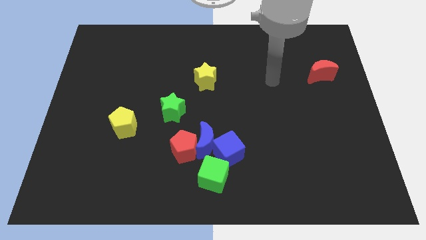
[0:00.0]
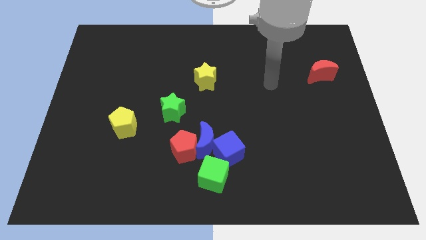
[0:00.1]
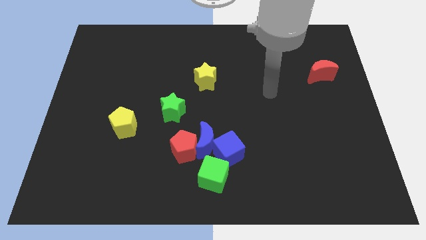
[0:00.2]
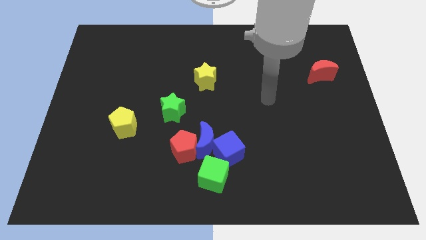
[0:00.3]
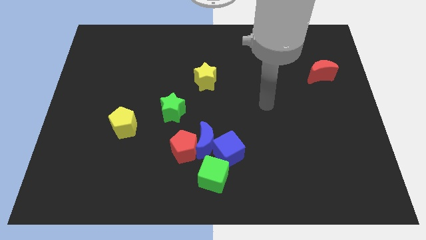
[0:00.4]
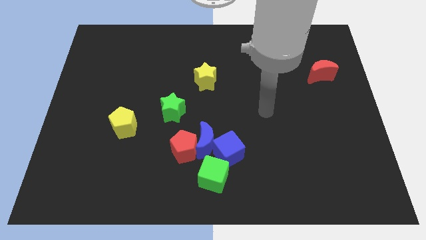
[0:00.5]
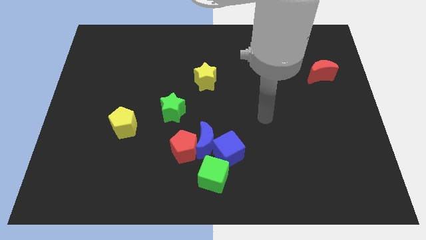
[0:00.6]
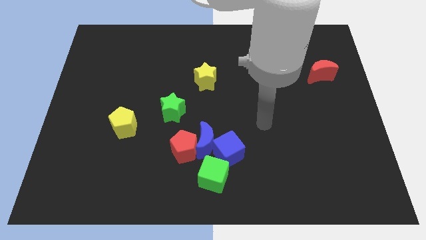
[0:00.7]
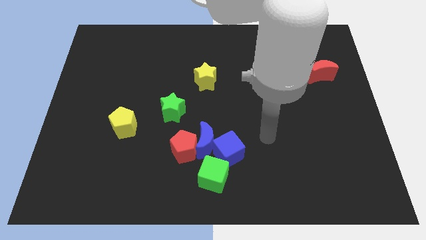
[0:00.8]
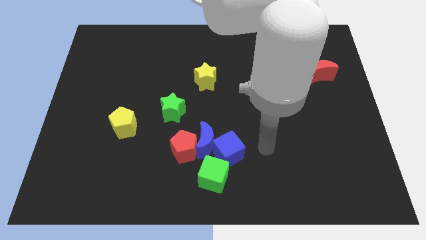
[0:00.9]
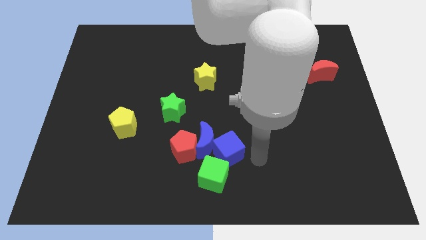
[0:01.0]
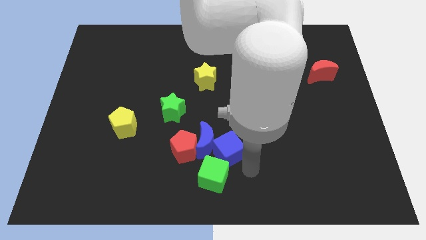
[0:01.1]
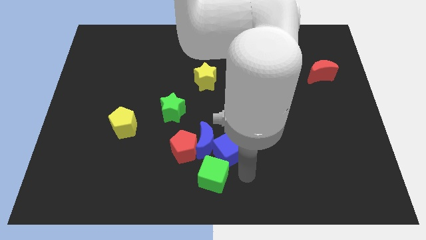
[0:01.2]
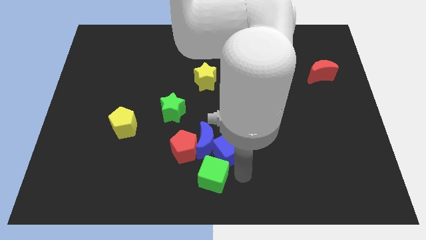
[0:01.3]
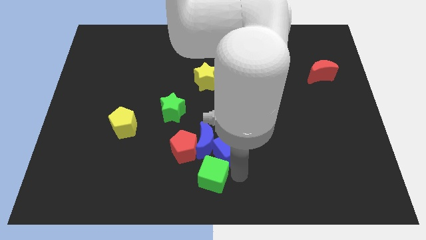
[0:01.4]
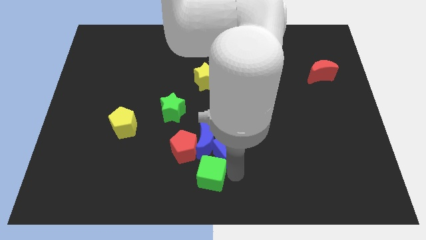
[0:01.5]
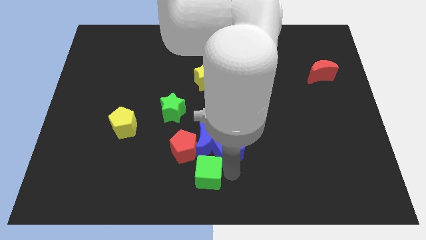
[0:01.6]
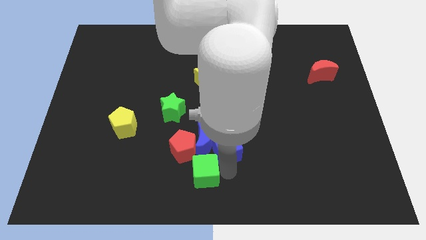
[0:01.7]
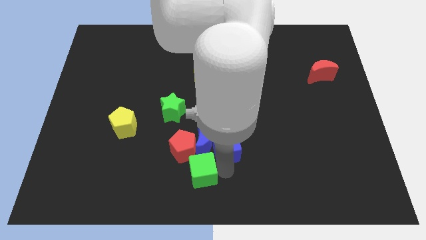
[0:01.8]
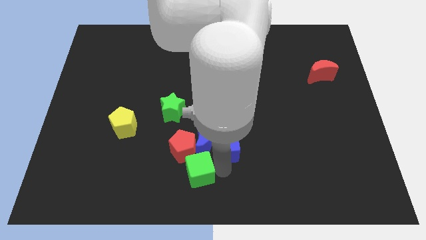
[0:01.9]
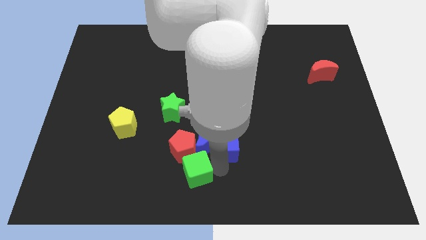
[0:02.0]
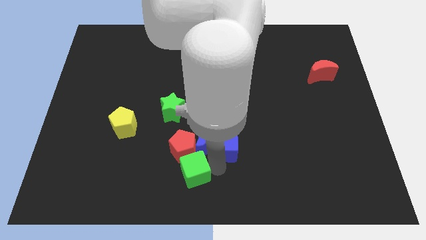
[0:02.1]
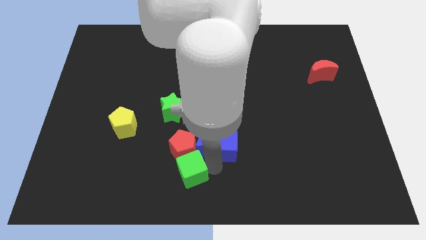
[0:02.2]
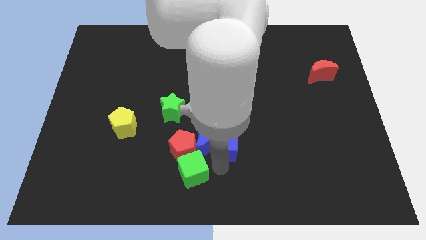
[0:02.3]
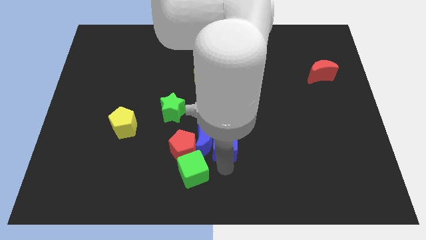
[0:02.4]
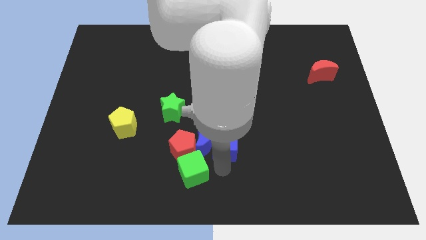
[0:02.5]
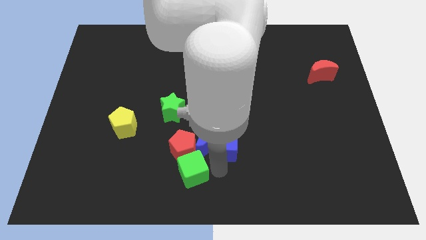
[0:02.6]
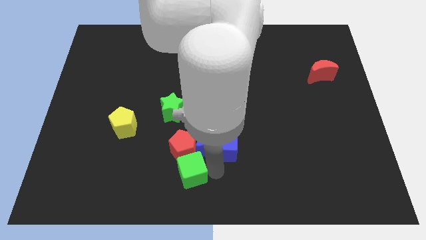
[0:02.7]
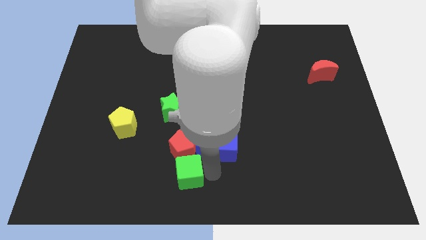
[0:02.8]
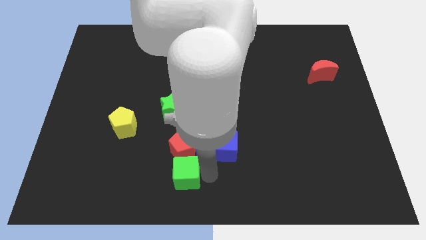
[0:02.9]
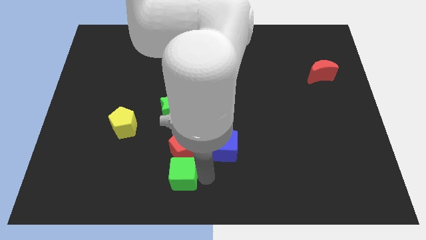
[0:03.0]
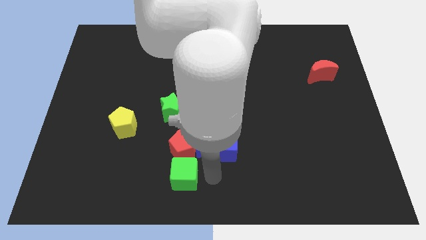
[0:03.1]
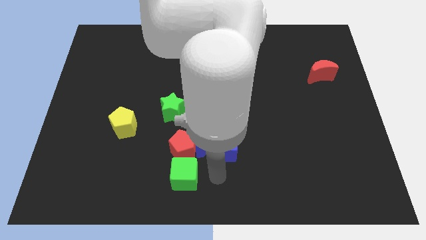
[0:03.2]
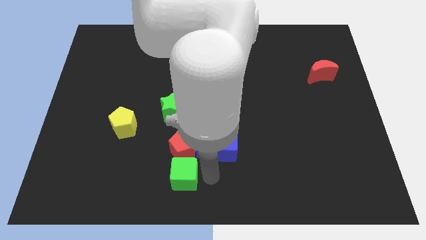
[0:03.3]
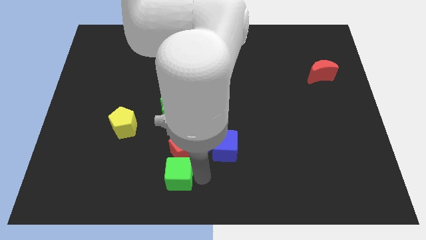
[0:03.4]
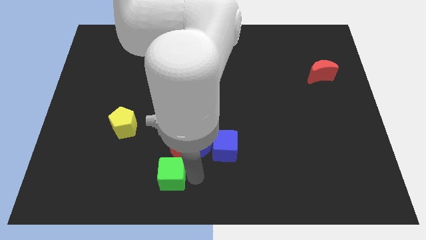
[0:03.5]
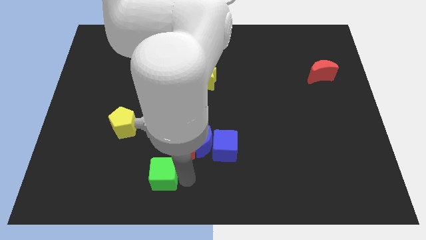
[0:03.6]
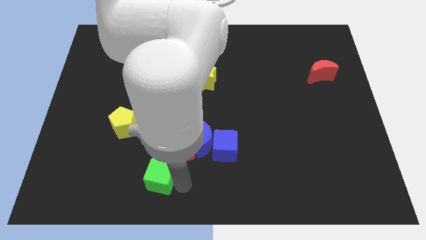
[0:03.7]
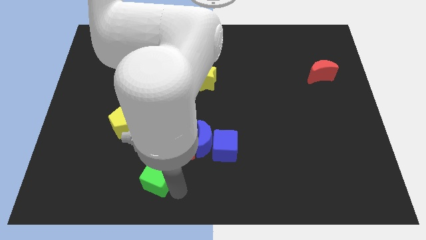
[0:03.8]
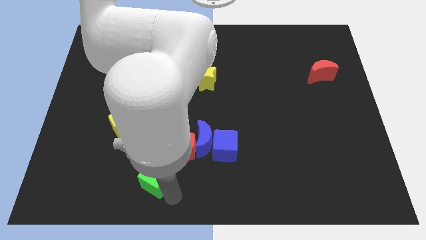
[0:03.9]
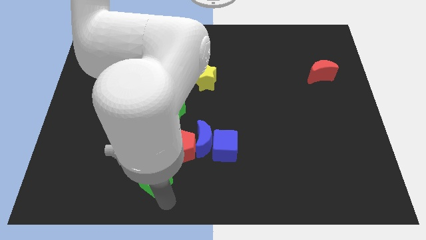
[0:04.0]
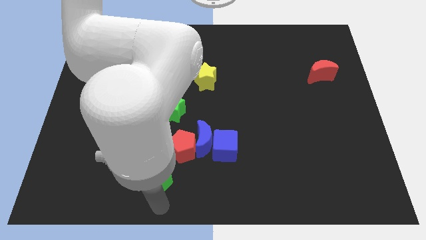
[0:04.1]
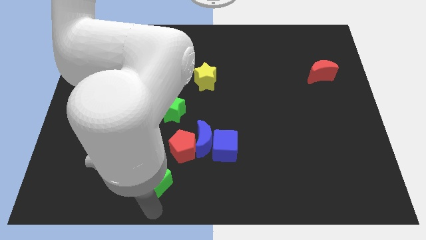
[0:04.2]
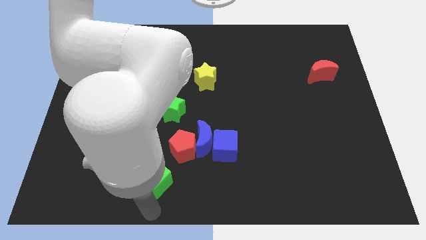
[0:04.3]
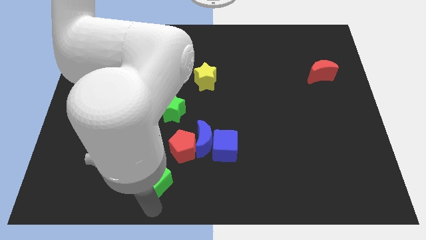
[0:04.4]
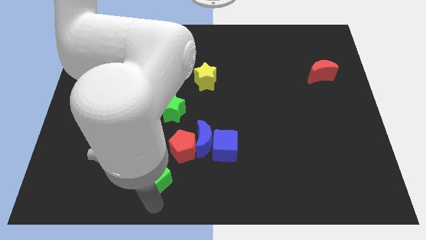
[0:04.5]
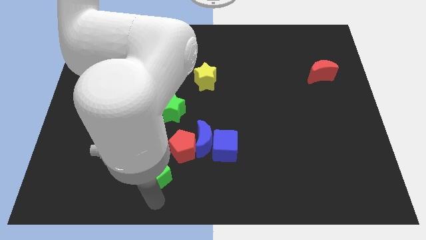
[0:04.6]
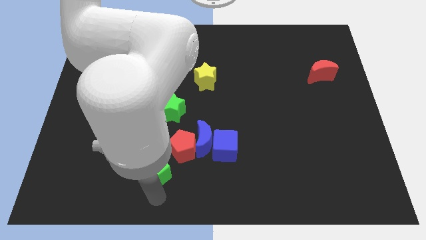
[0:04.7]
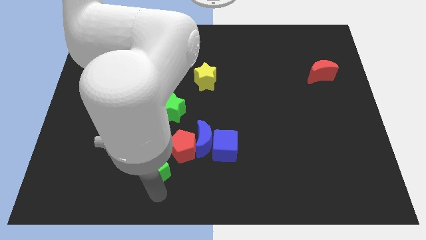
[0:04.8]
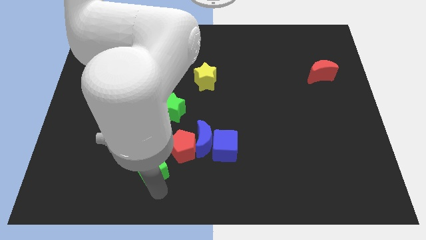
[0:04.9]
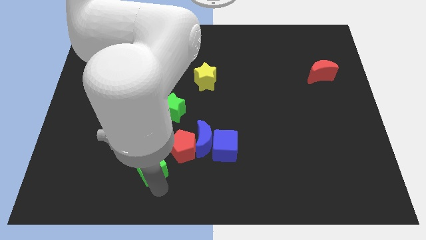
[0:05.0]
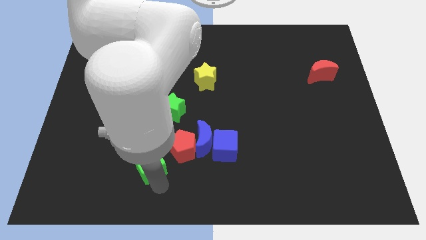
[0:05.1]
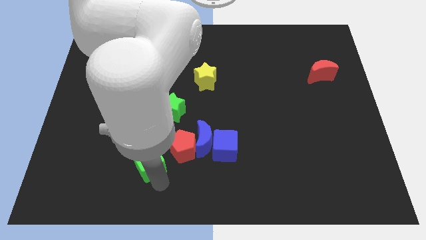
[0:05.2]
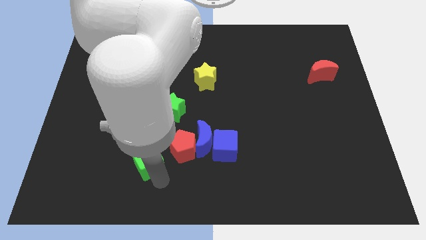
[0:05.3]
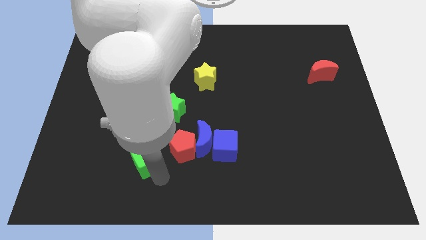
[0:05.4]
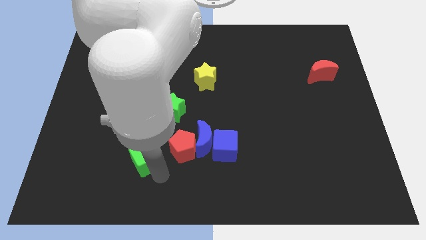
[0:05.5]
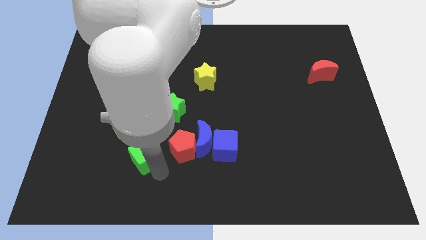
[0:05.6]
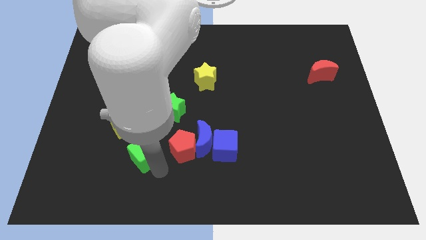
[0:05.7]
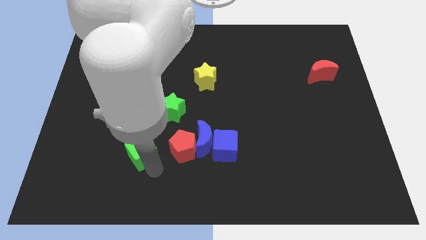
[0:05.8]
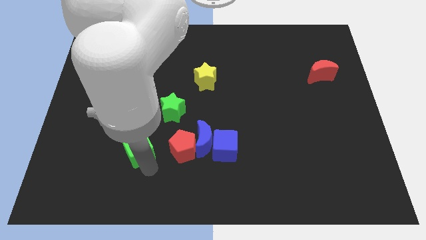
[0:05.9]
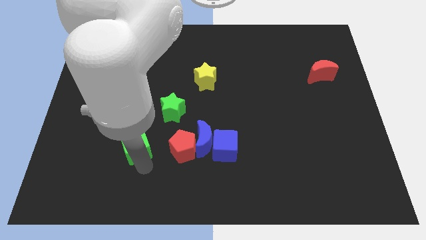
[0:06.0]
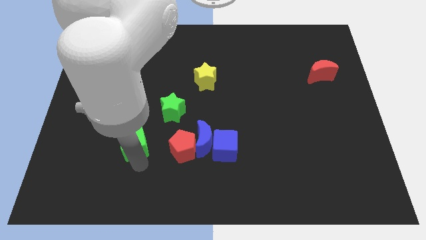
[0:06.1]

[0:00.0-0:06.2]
slide the green cube close to the yellow pentagon

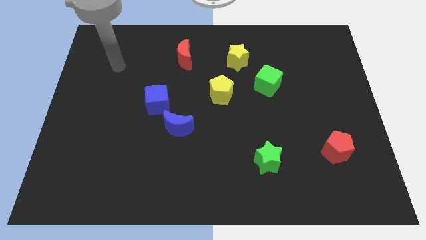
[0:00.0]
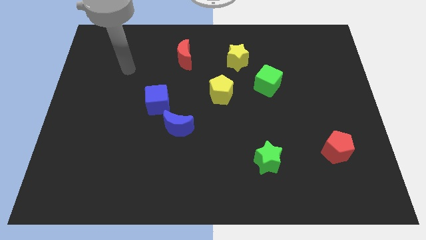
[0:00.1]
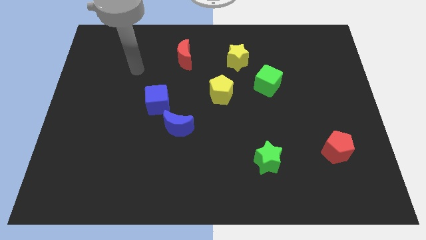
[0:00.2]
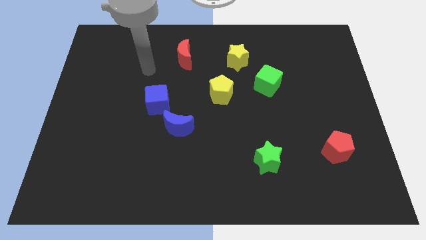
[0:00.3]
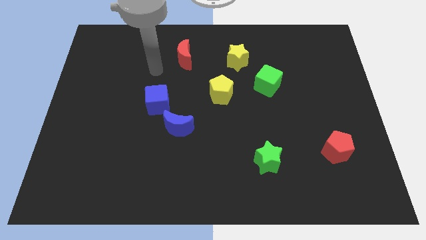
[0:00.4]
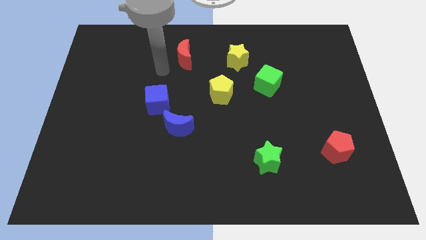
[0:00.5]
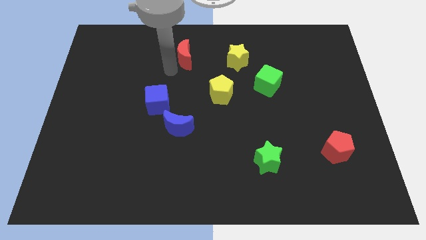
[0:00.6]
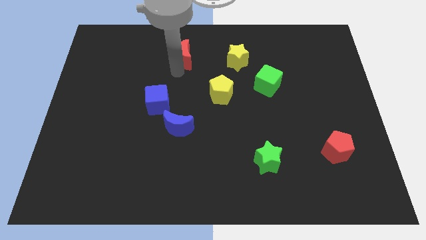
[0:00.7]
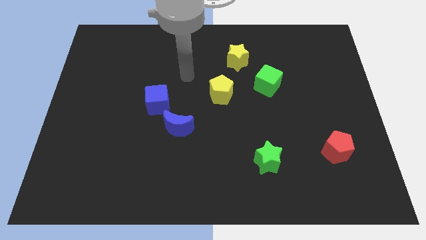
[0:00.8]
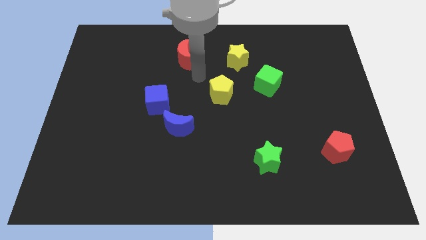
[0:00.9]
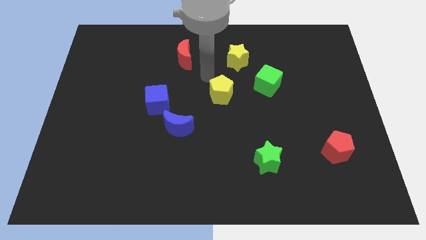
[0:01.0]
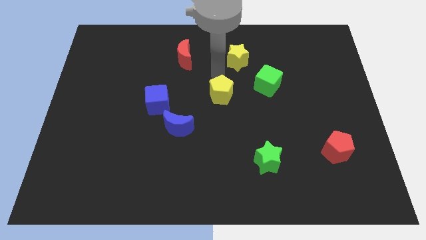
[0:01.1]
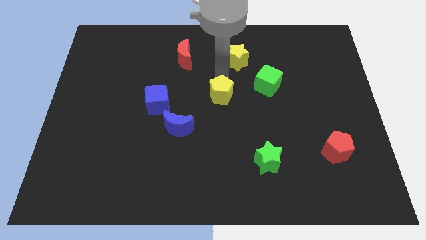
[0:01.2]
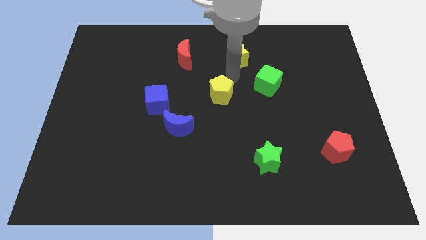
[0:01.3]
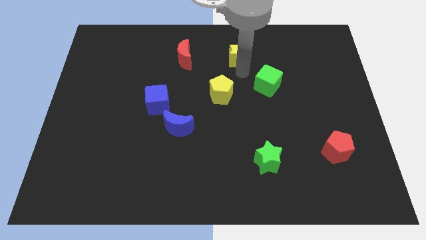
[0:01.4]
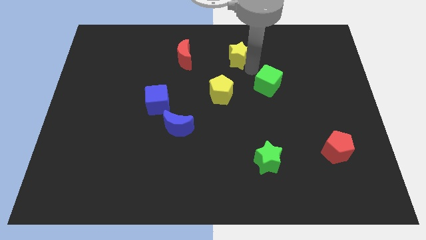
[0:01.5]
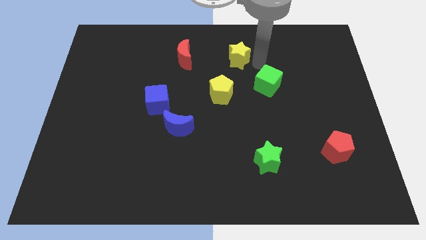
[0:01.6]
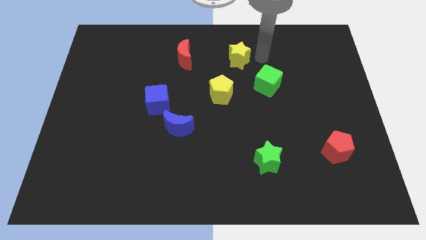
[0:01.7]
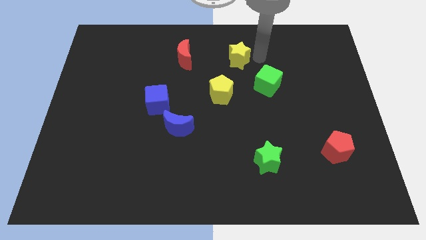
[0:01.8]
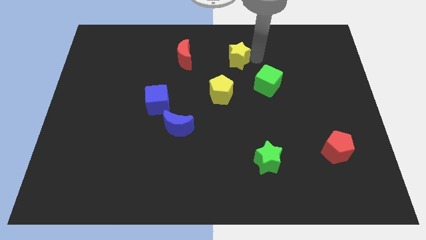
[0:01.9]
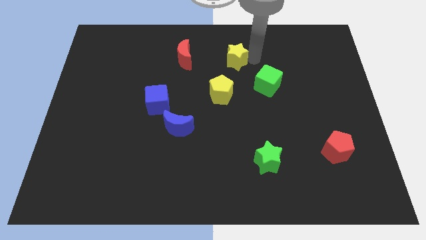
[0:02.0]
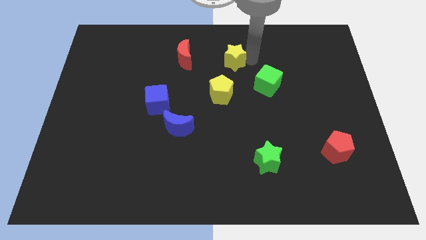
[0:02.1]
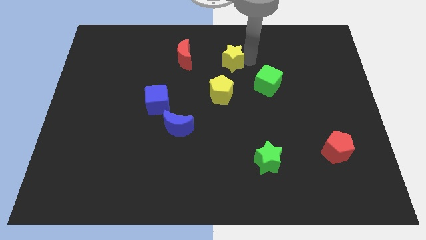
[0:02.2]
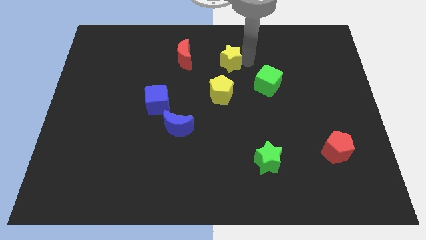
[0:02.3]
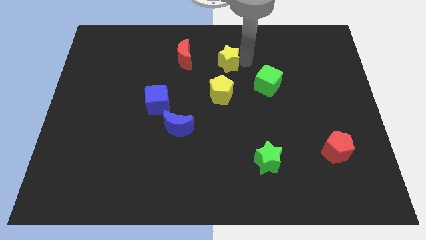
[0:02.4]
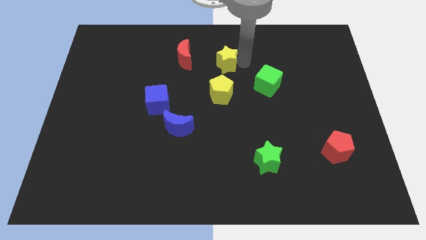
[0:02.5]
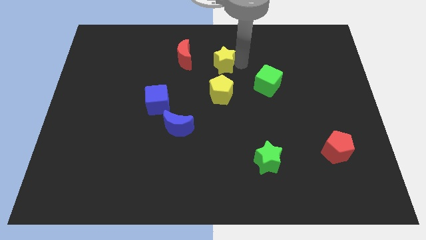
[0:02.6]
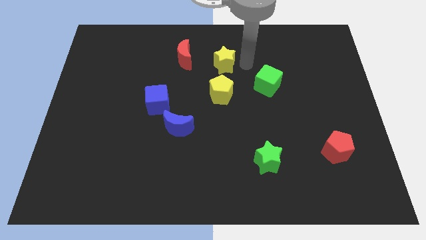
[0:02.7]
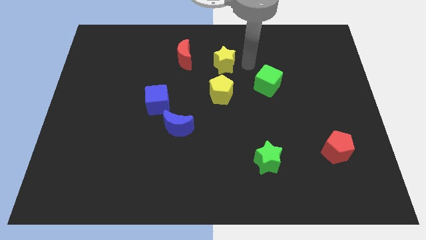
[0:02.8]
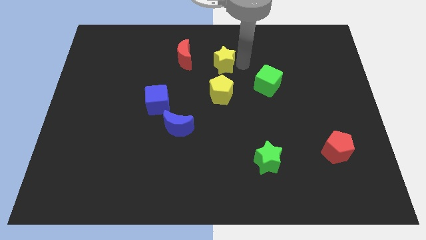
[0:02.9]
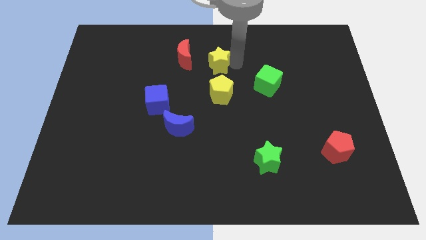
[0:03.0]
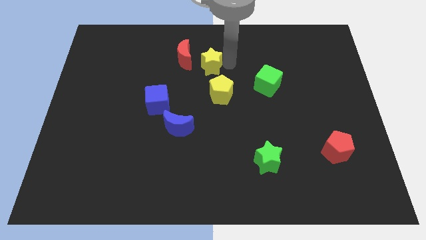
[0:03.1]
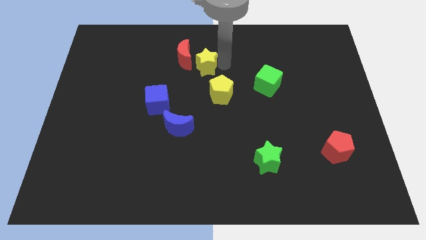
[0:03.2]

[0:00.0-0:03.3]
move the yellow star towards the red moon
